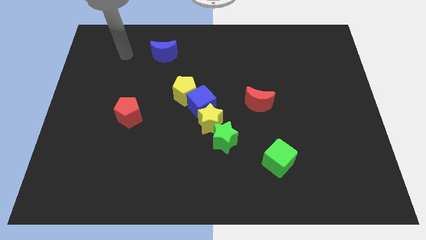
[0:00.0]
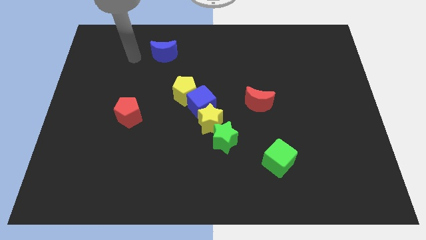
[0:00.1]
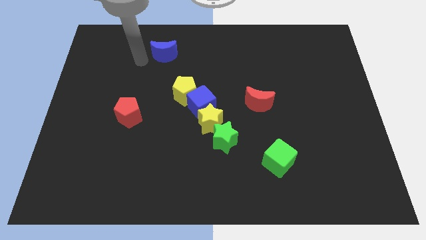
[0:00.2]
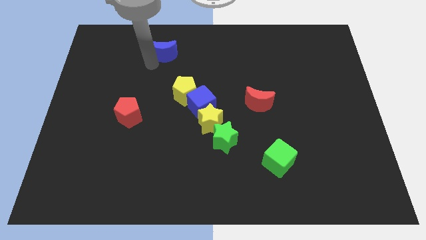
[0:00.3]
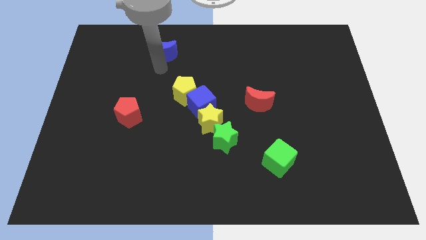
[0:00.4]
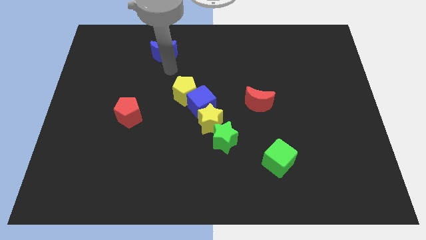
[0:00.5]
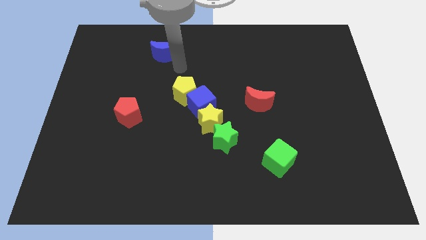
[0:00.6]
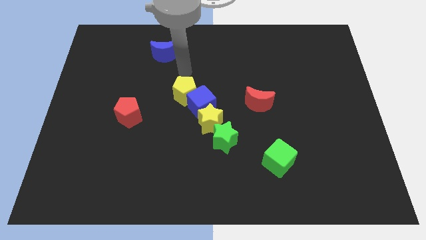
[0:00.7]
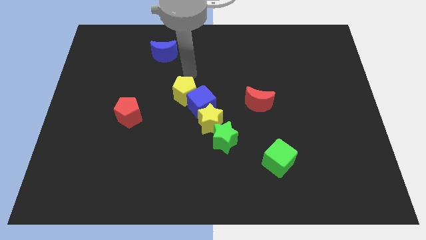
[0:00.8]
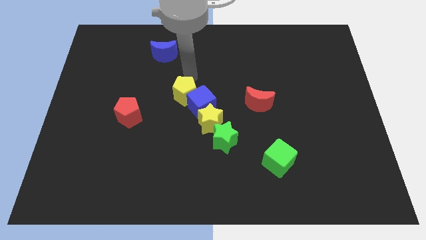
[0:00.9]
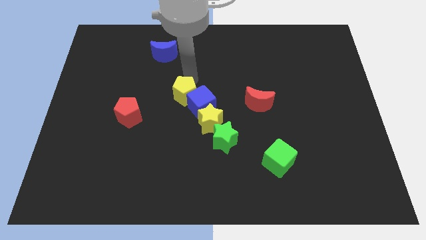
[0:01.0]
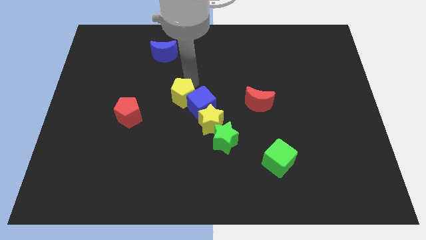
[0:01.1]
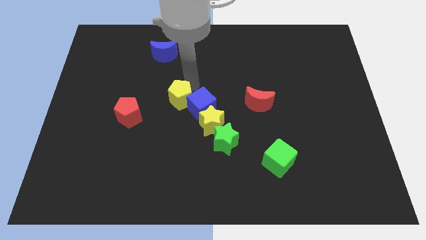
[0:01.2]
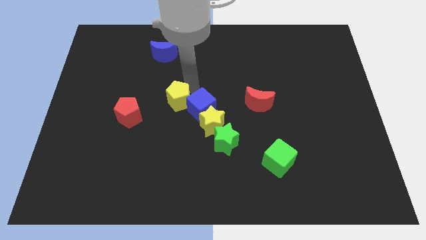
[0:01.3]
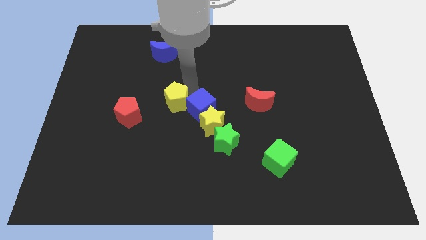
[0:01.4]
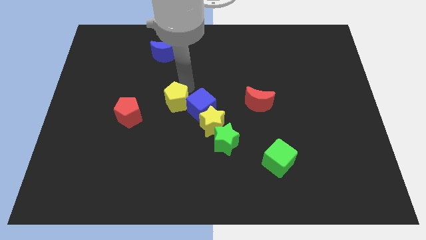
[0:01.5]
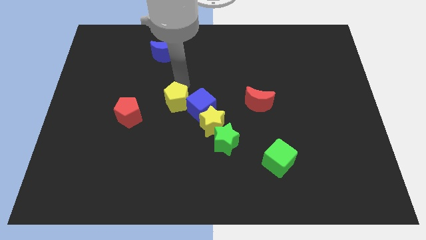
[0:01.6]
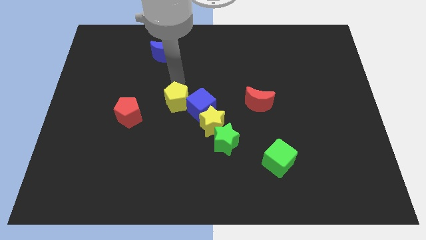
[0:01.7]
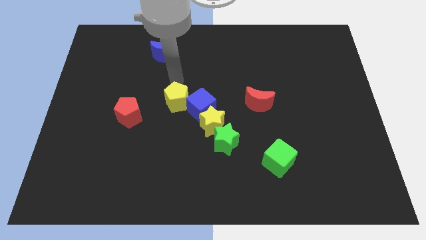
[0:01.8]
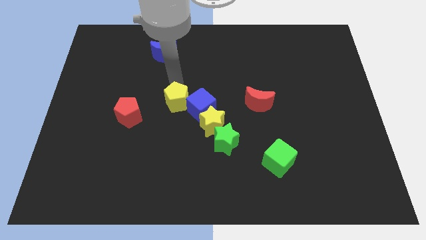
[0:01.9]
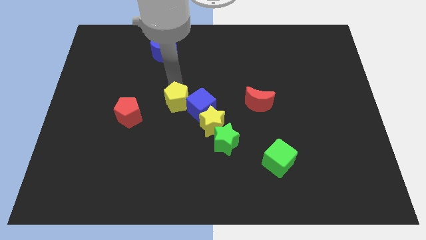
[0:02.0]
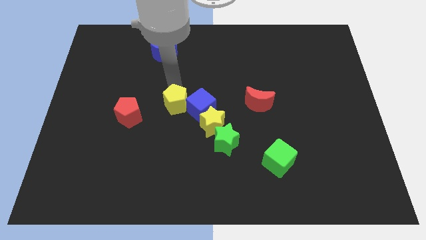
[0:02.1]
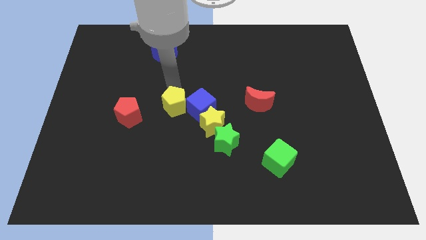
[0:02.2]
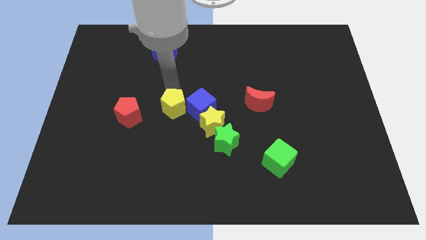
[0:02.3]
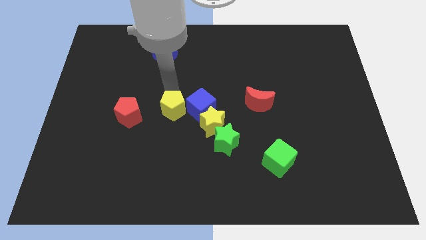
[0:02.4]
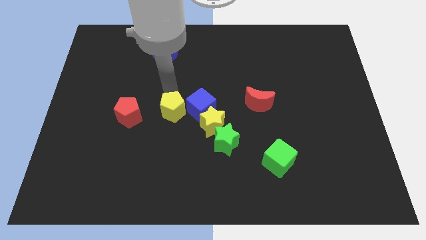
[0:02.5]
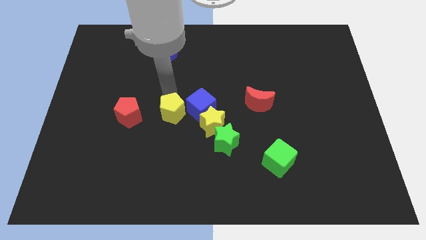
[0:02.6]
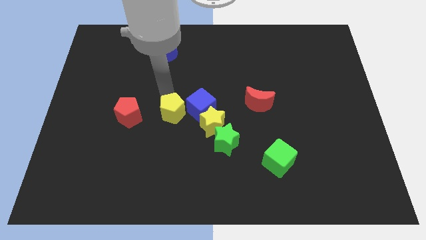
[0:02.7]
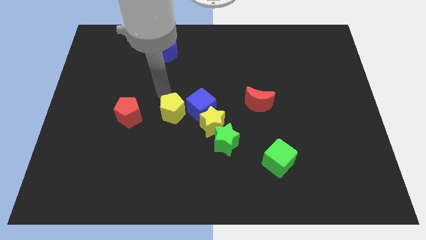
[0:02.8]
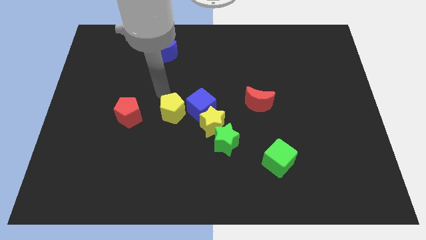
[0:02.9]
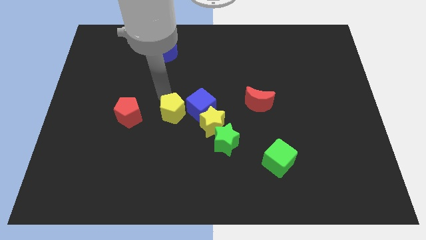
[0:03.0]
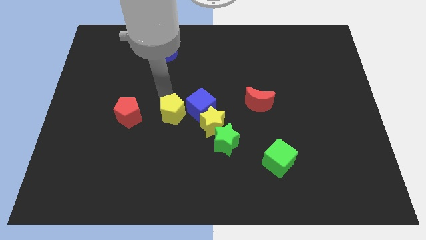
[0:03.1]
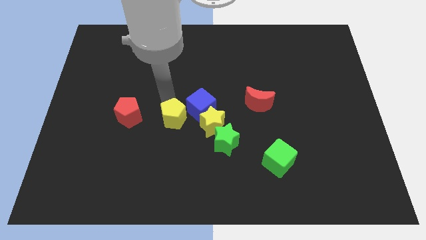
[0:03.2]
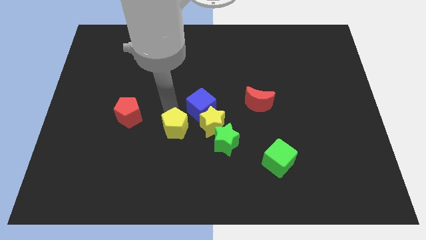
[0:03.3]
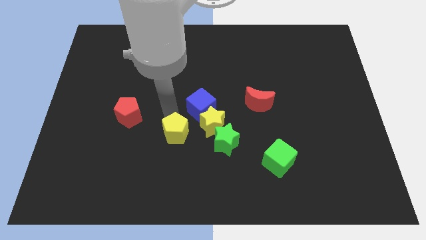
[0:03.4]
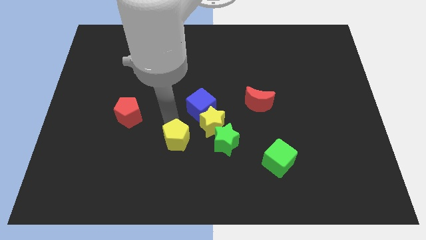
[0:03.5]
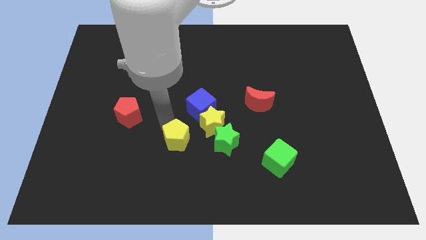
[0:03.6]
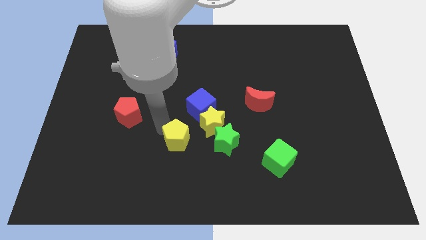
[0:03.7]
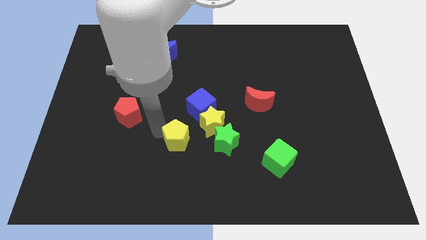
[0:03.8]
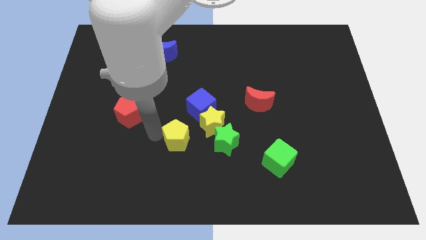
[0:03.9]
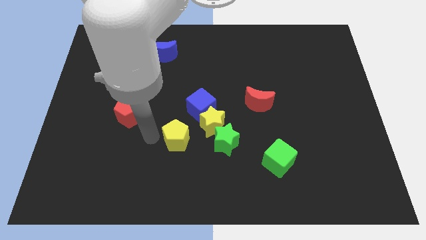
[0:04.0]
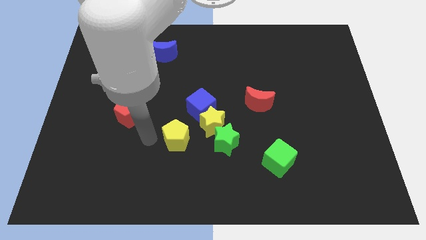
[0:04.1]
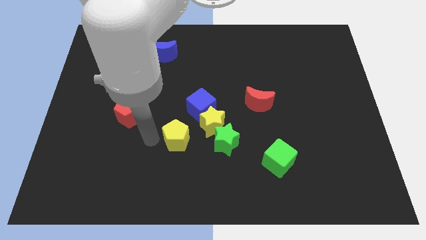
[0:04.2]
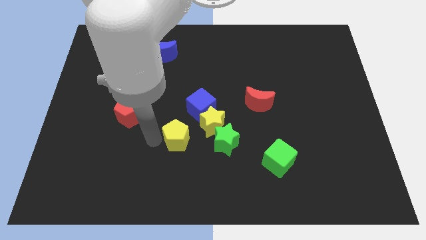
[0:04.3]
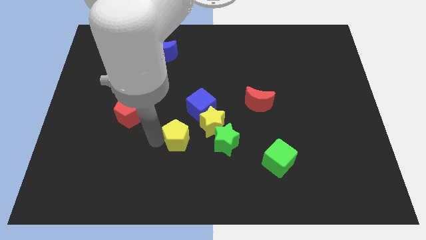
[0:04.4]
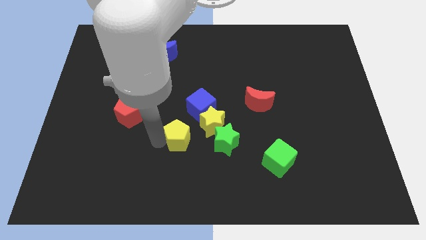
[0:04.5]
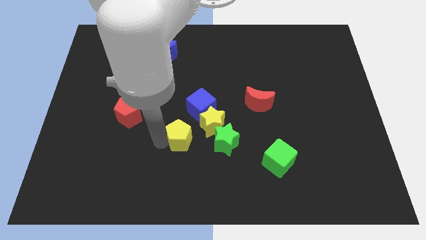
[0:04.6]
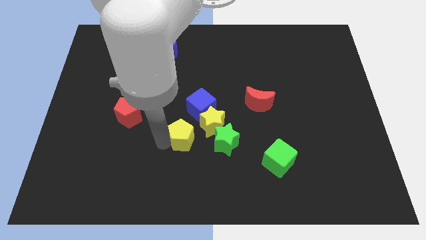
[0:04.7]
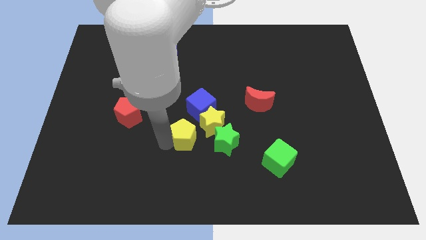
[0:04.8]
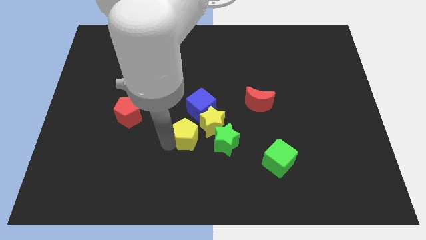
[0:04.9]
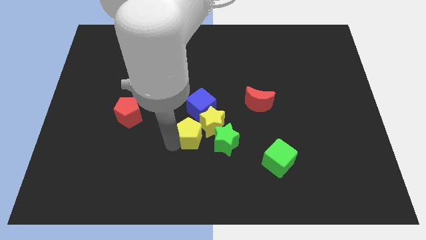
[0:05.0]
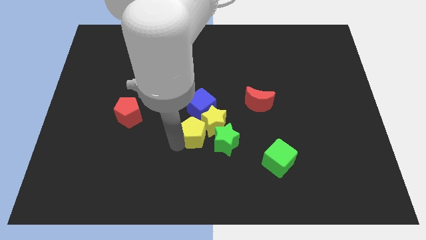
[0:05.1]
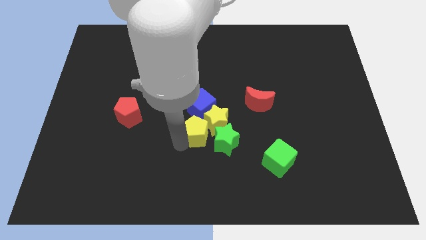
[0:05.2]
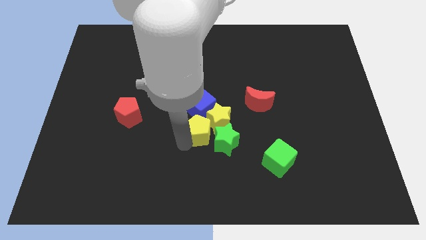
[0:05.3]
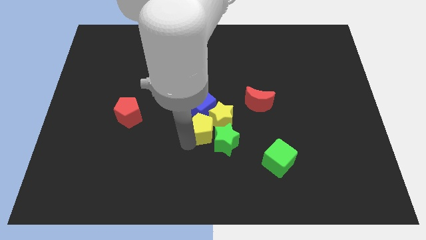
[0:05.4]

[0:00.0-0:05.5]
put the yellow pentagon to the green star

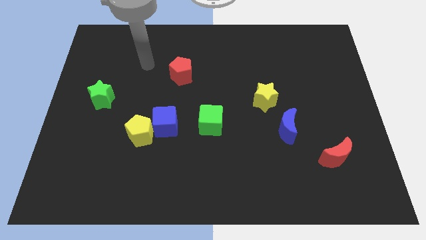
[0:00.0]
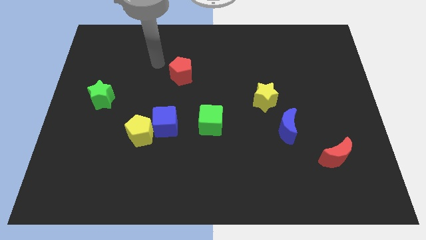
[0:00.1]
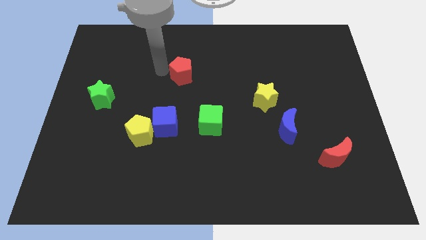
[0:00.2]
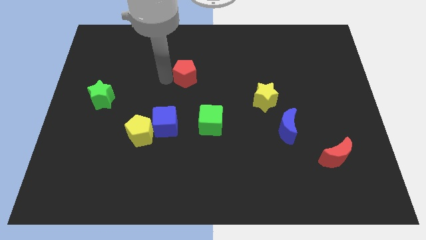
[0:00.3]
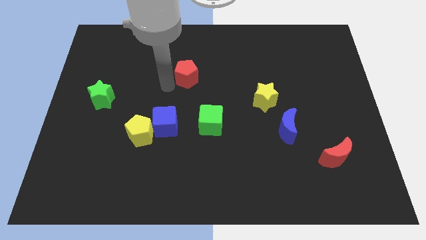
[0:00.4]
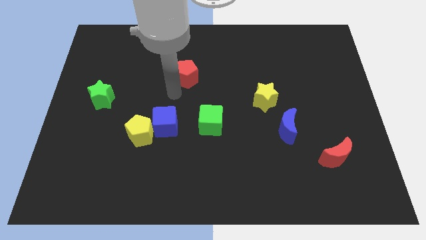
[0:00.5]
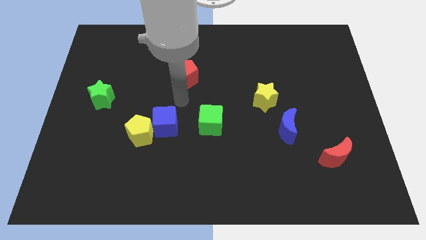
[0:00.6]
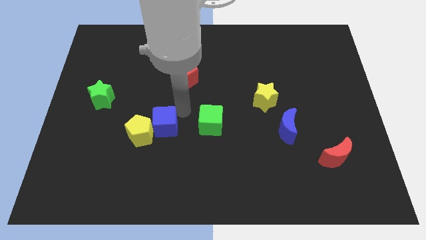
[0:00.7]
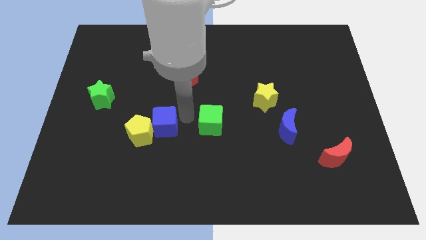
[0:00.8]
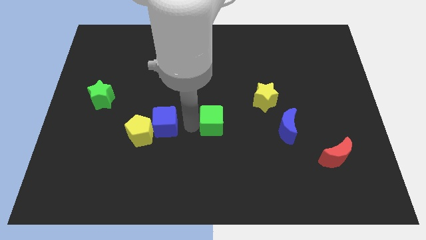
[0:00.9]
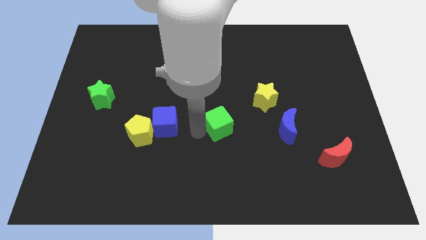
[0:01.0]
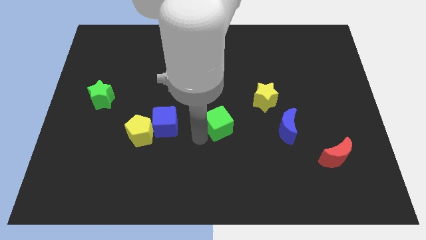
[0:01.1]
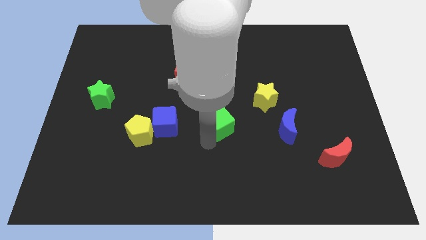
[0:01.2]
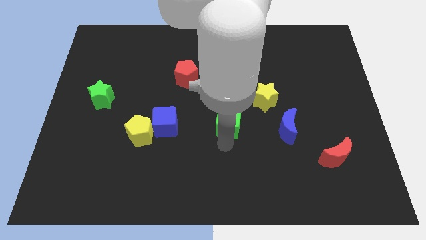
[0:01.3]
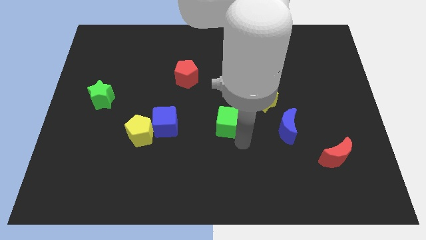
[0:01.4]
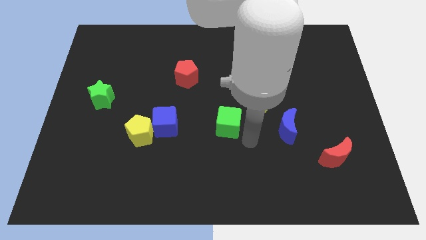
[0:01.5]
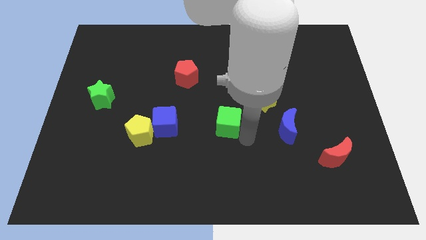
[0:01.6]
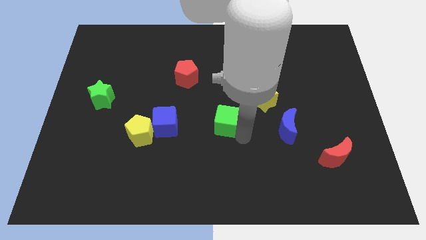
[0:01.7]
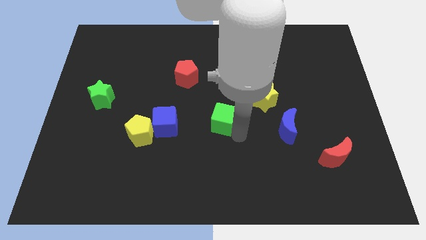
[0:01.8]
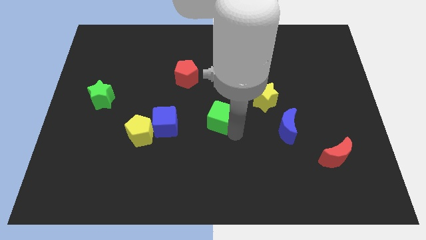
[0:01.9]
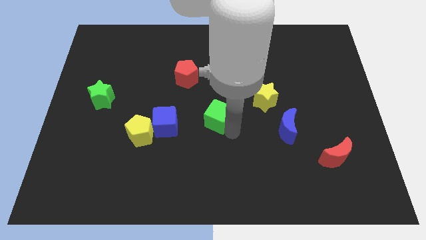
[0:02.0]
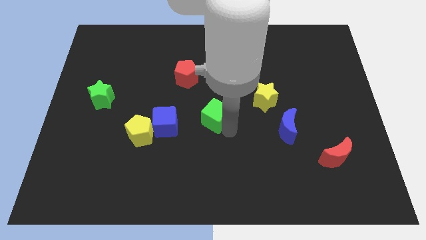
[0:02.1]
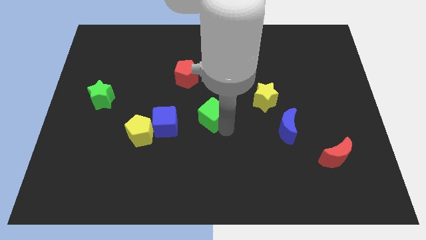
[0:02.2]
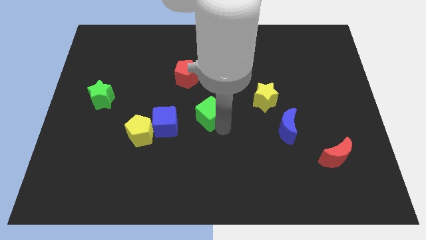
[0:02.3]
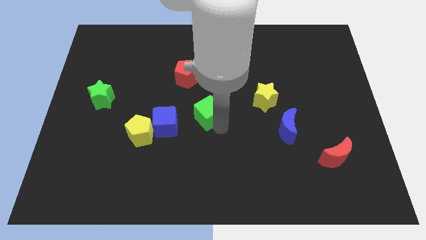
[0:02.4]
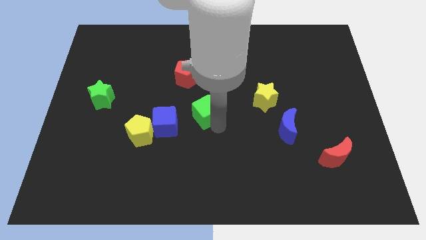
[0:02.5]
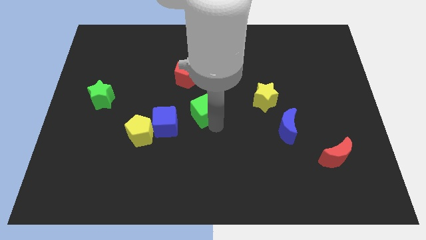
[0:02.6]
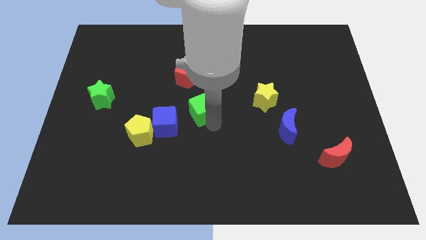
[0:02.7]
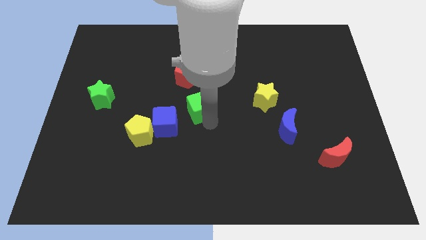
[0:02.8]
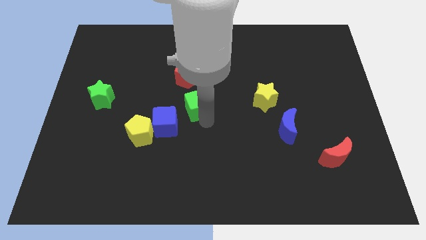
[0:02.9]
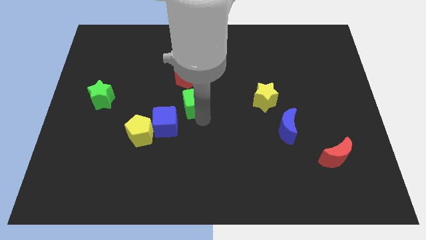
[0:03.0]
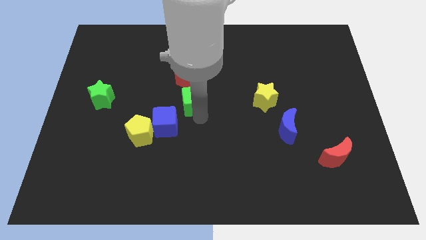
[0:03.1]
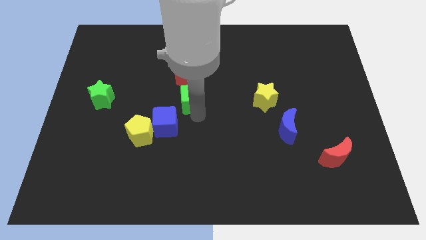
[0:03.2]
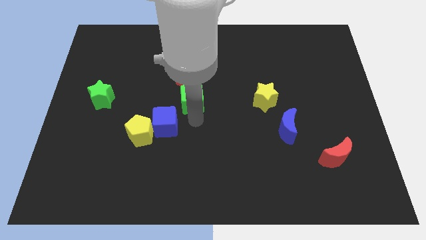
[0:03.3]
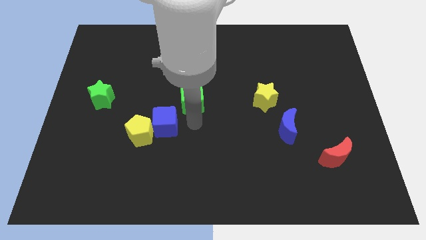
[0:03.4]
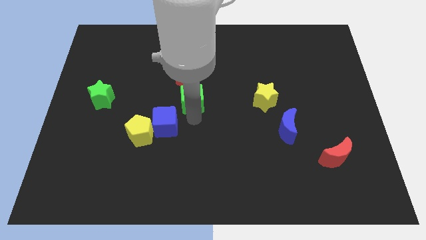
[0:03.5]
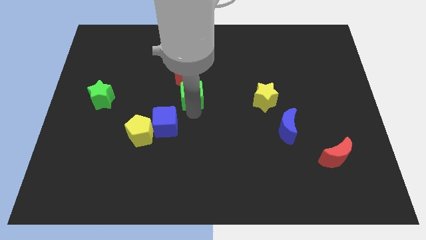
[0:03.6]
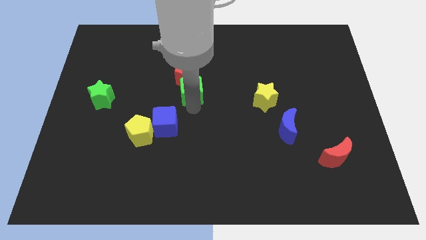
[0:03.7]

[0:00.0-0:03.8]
put the green cube close to the red pentagon
